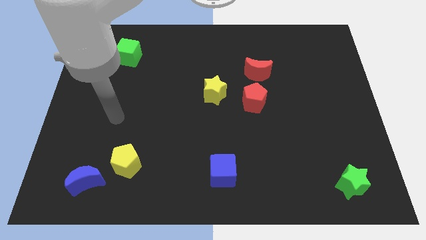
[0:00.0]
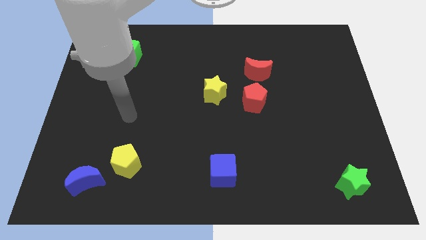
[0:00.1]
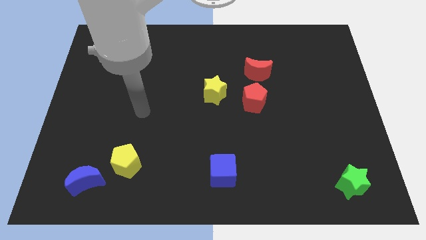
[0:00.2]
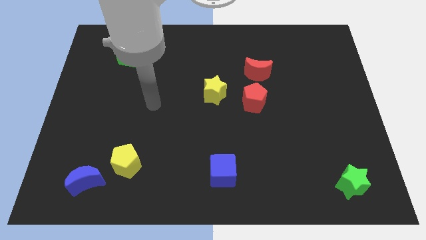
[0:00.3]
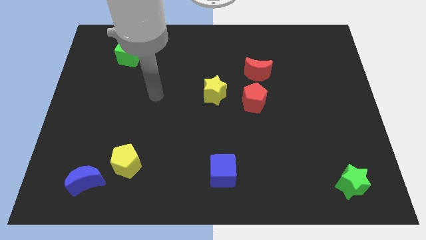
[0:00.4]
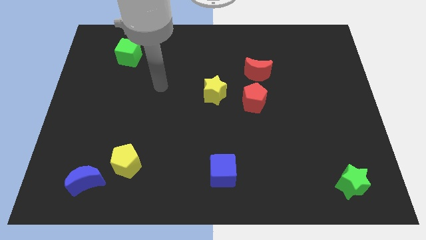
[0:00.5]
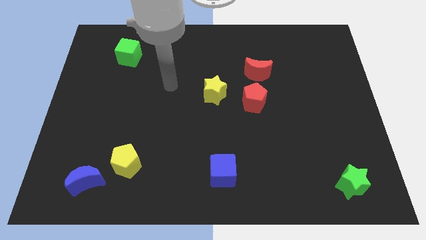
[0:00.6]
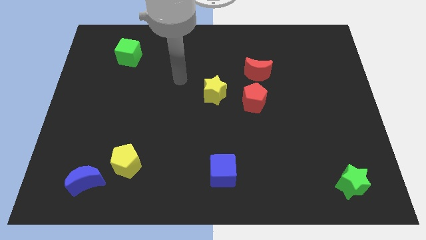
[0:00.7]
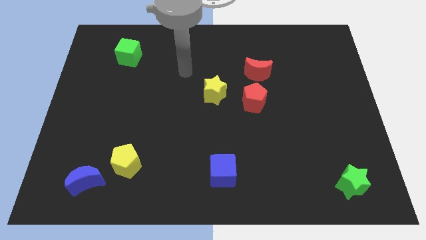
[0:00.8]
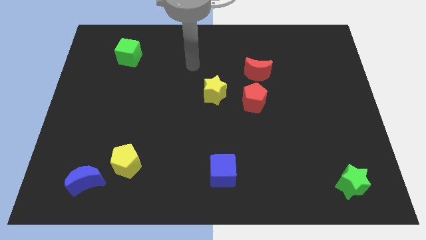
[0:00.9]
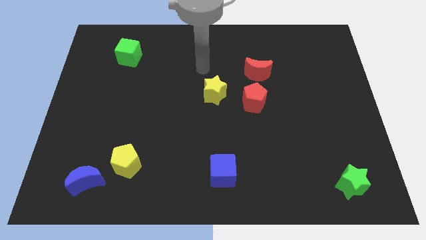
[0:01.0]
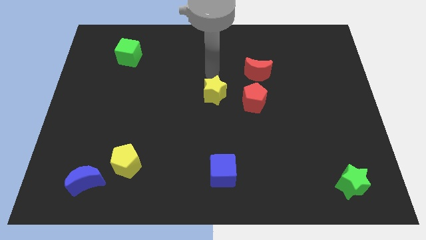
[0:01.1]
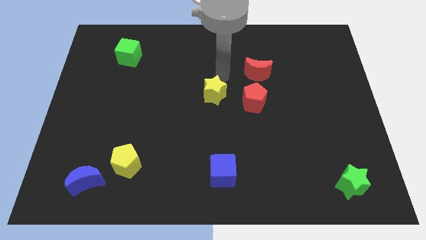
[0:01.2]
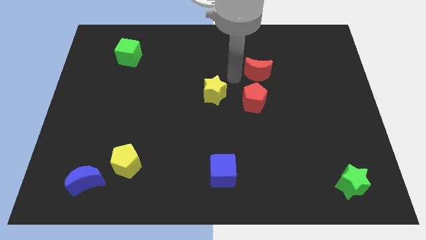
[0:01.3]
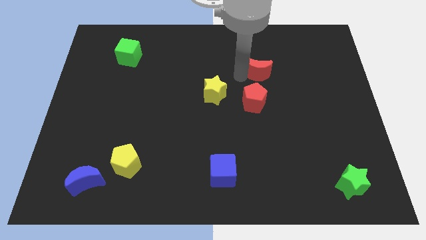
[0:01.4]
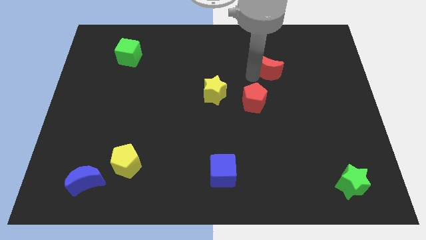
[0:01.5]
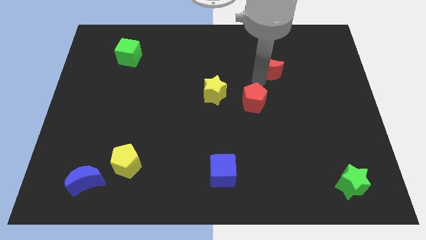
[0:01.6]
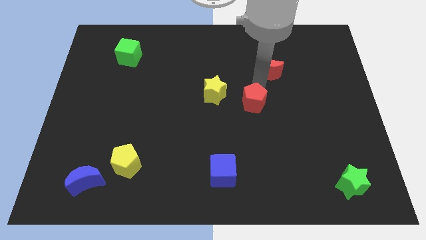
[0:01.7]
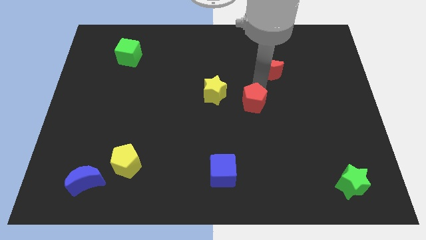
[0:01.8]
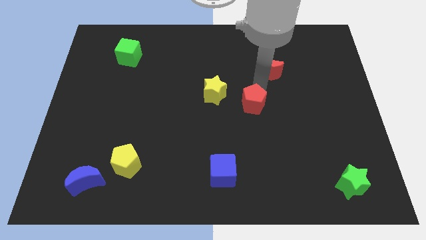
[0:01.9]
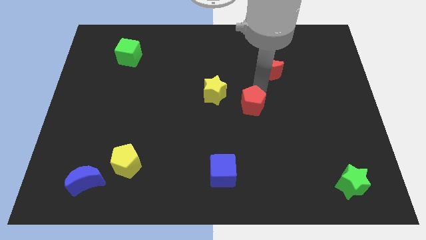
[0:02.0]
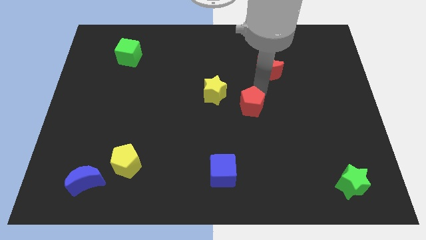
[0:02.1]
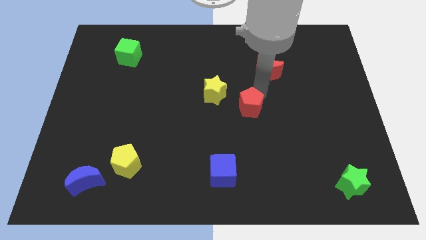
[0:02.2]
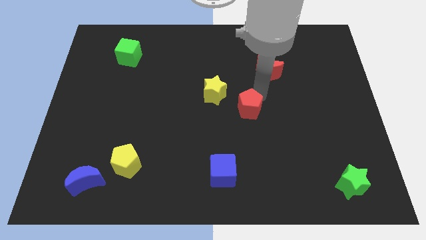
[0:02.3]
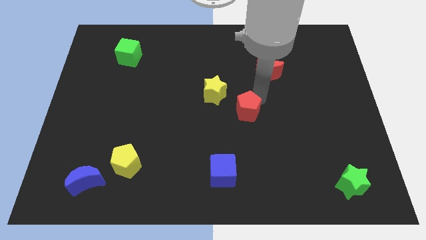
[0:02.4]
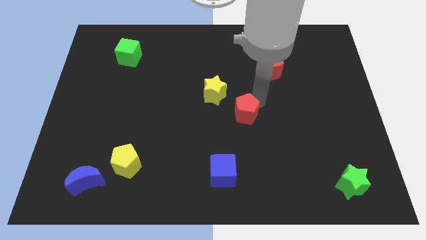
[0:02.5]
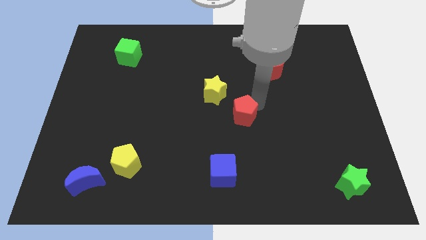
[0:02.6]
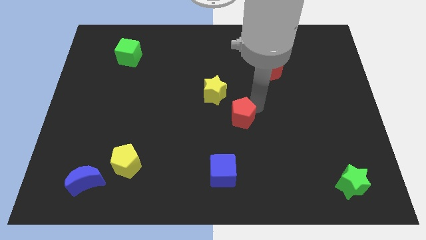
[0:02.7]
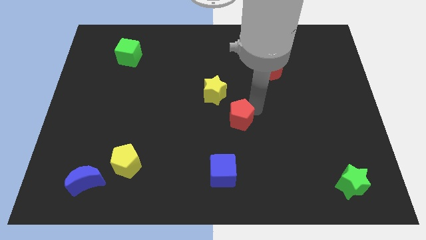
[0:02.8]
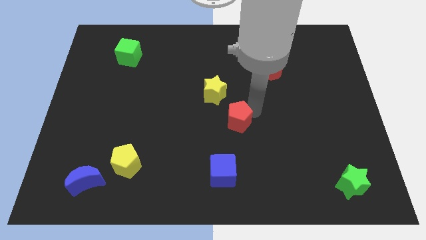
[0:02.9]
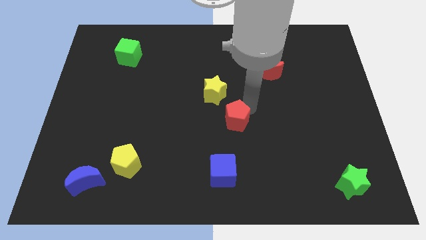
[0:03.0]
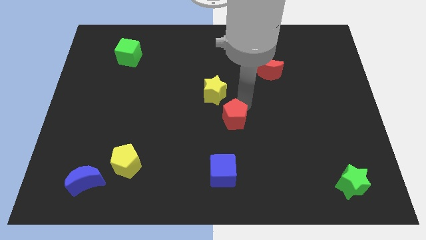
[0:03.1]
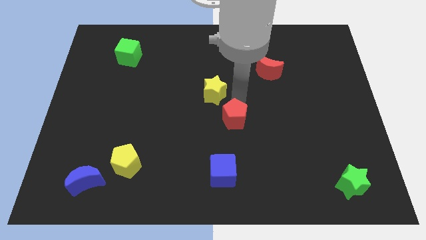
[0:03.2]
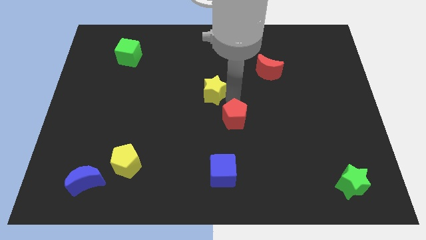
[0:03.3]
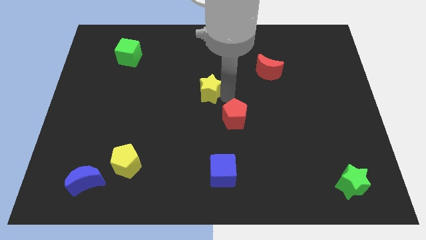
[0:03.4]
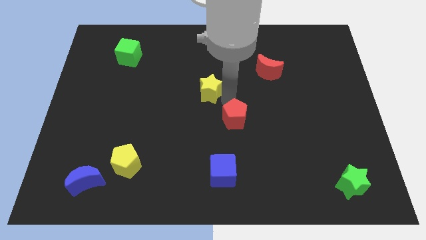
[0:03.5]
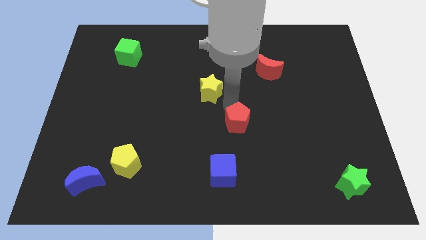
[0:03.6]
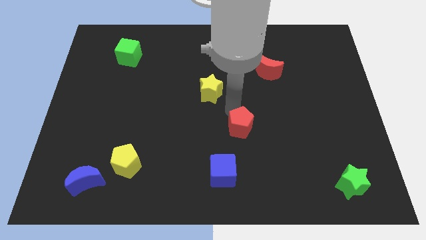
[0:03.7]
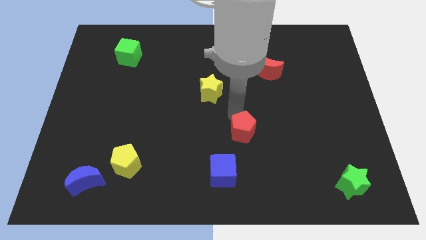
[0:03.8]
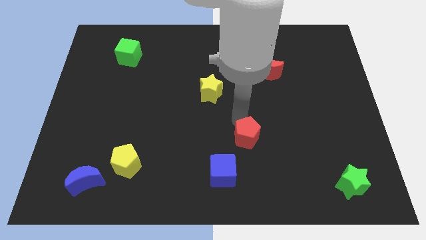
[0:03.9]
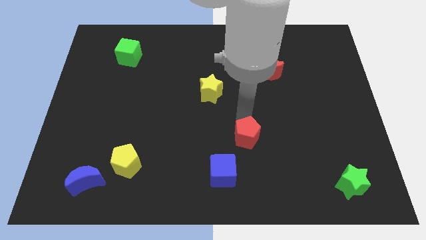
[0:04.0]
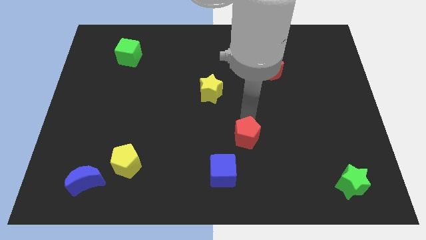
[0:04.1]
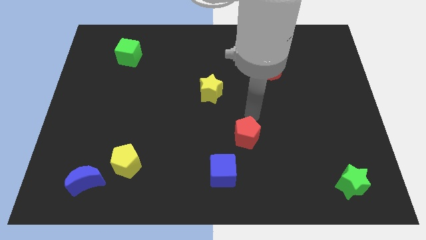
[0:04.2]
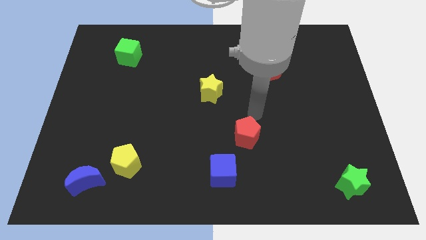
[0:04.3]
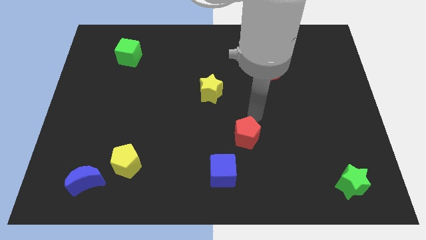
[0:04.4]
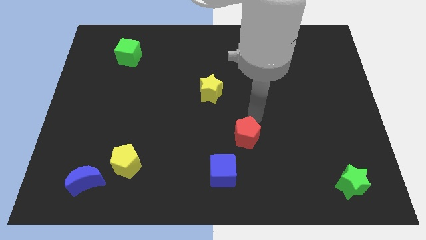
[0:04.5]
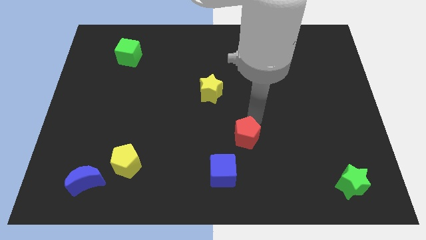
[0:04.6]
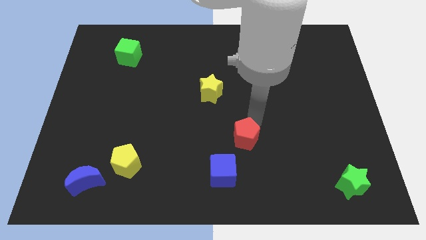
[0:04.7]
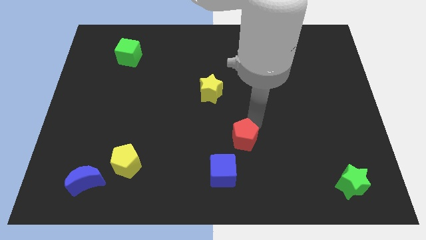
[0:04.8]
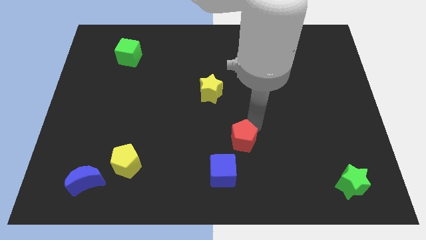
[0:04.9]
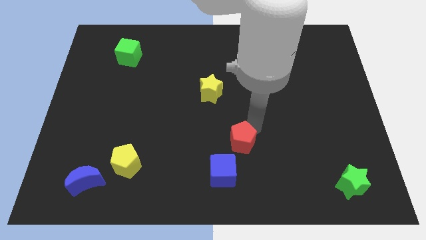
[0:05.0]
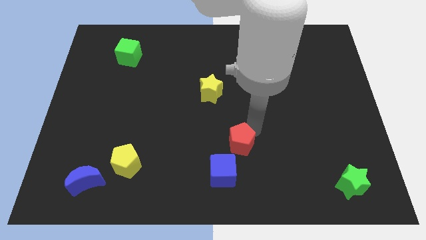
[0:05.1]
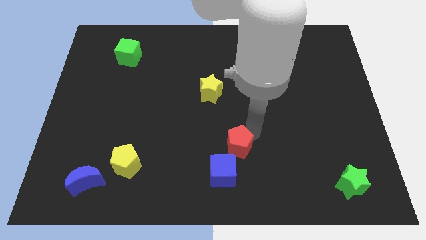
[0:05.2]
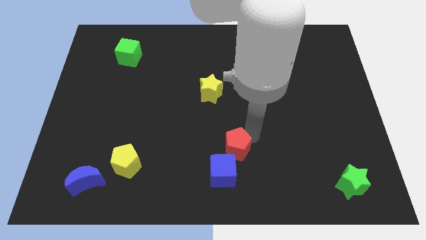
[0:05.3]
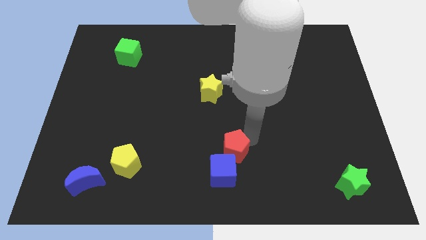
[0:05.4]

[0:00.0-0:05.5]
push the red pentagon towards the blue cube
